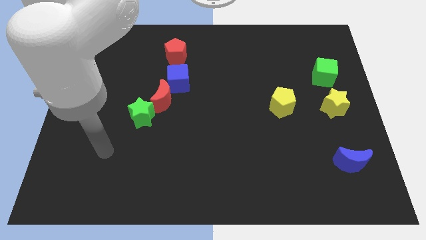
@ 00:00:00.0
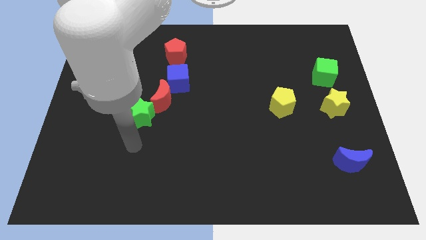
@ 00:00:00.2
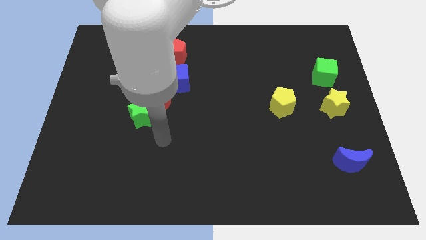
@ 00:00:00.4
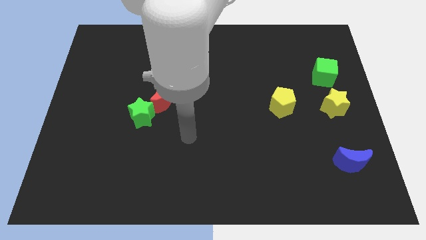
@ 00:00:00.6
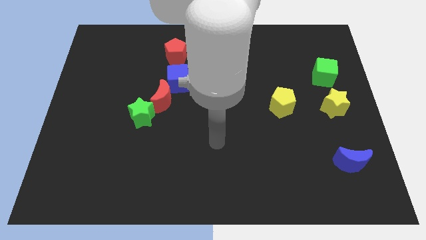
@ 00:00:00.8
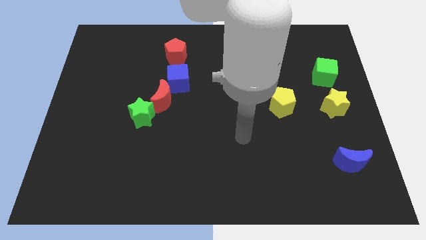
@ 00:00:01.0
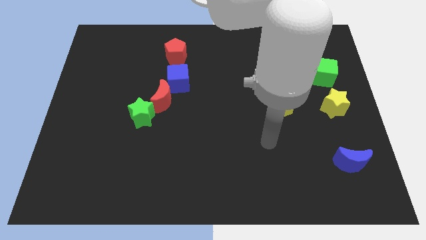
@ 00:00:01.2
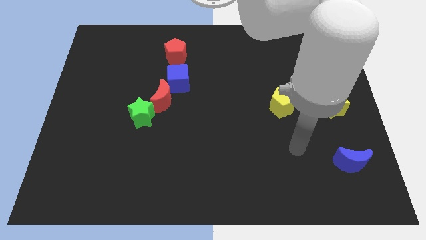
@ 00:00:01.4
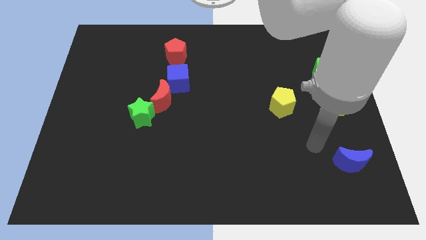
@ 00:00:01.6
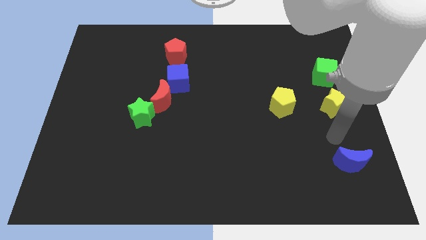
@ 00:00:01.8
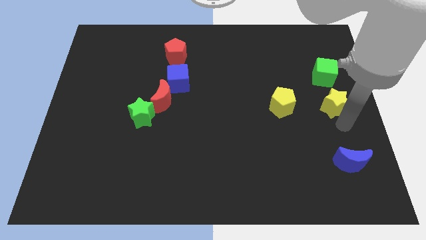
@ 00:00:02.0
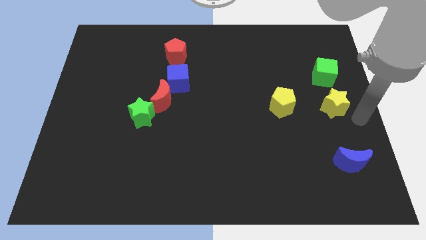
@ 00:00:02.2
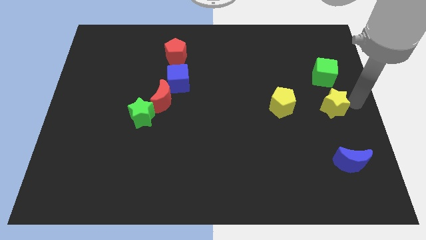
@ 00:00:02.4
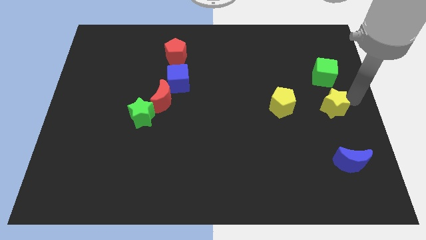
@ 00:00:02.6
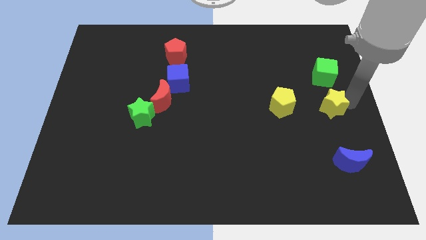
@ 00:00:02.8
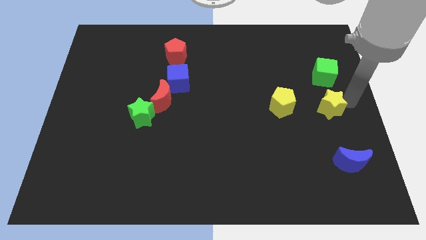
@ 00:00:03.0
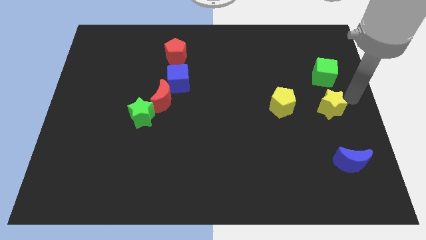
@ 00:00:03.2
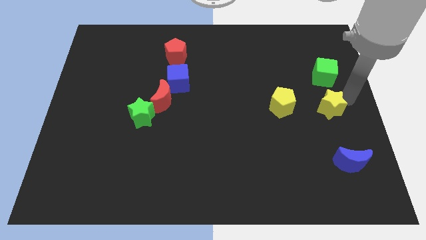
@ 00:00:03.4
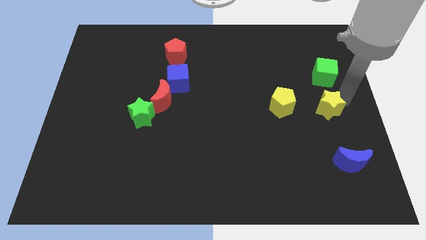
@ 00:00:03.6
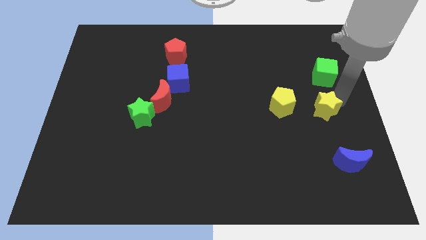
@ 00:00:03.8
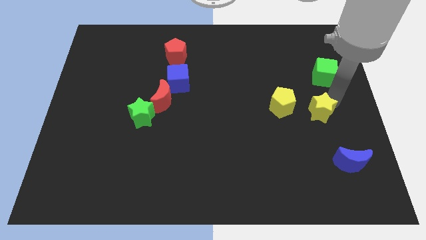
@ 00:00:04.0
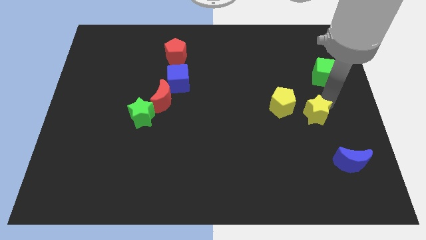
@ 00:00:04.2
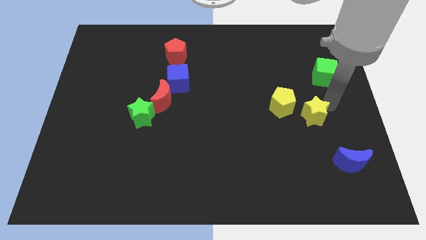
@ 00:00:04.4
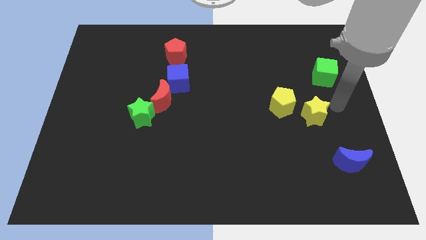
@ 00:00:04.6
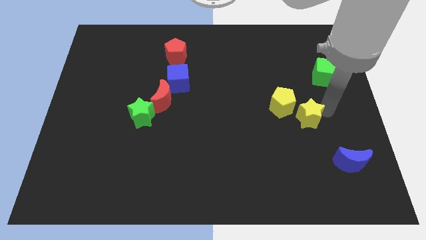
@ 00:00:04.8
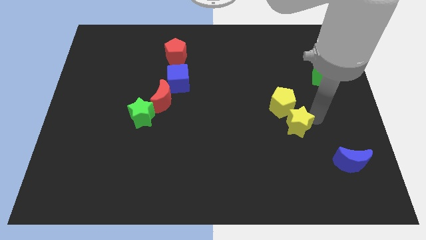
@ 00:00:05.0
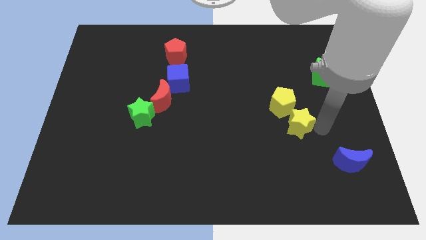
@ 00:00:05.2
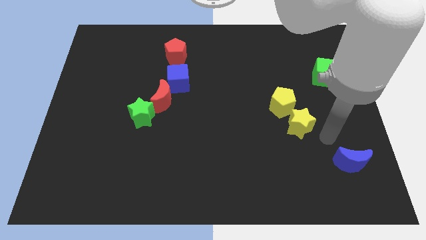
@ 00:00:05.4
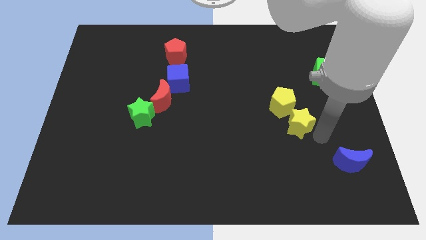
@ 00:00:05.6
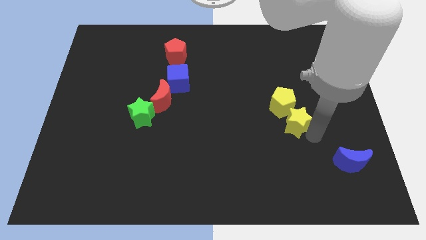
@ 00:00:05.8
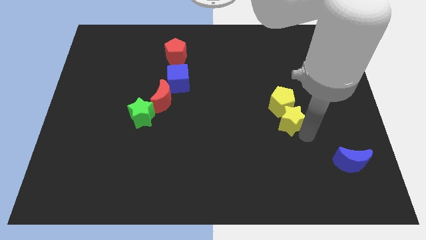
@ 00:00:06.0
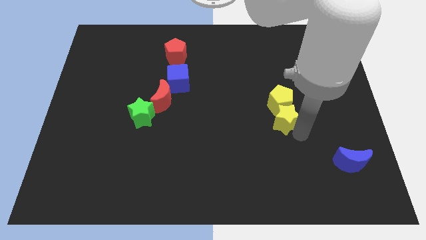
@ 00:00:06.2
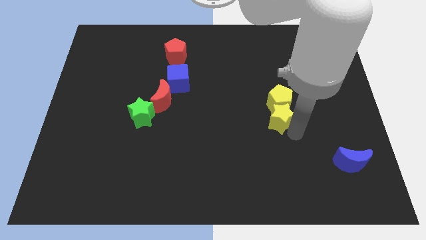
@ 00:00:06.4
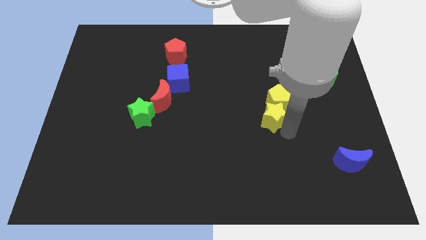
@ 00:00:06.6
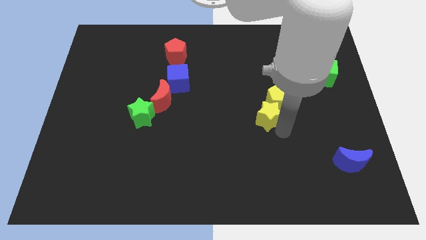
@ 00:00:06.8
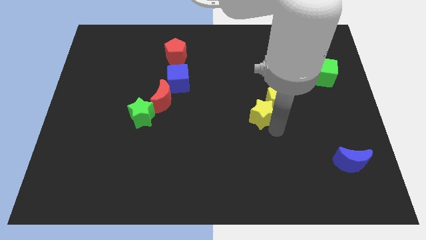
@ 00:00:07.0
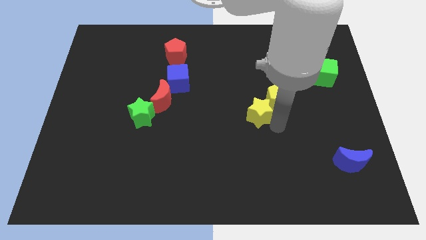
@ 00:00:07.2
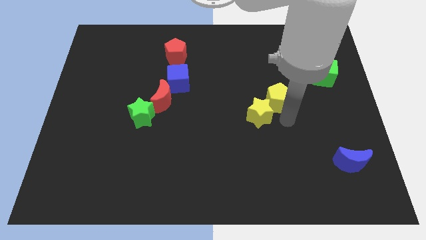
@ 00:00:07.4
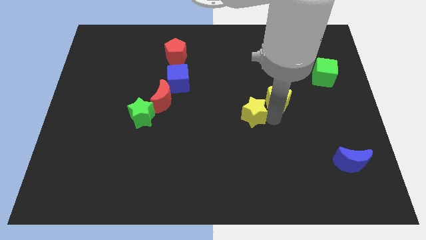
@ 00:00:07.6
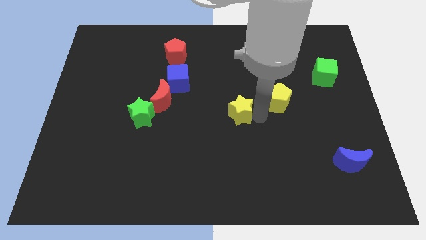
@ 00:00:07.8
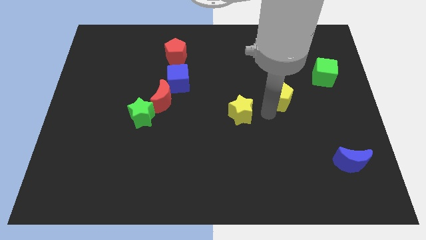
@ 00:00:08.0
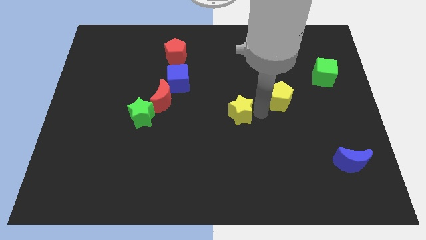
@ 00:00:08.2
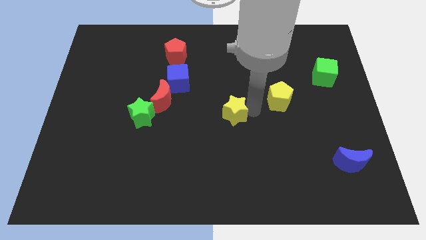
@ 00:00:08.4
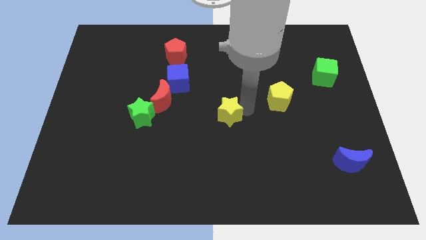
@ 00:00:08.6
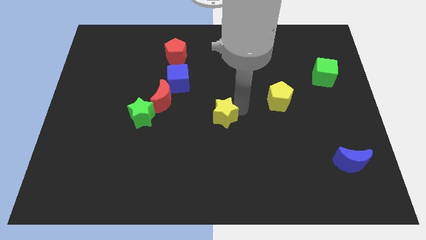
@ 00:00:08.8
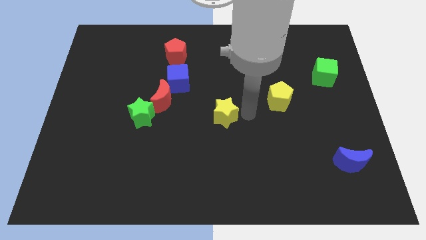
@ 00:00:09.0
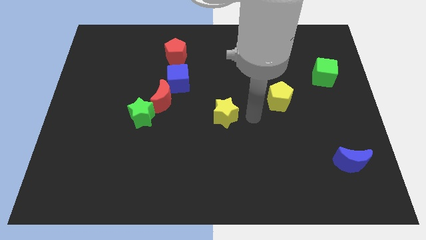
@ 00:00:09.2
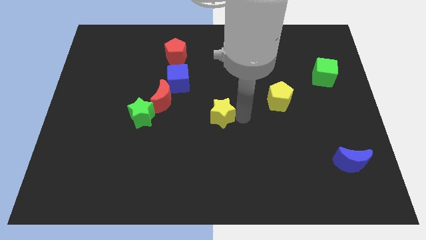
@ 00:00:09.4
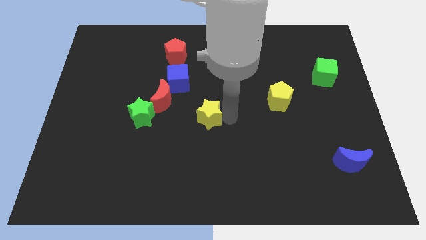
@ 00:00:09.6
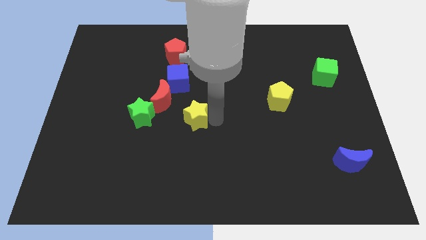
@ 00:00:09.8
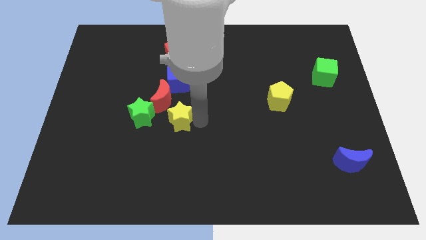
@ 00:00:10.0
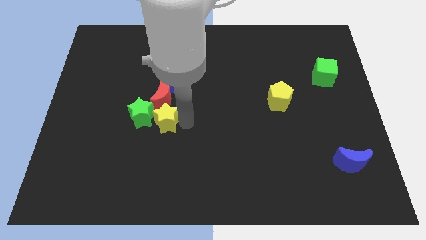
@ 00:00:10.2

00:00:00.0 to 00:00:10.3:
move the yellow star next to the green star

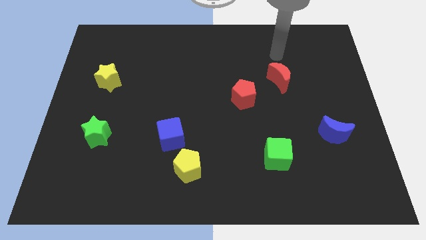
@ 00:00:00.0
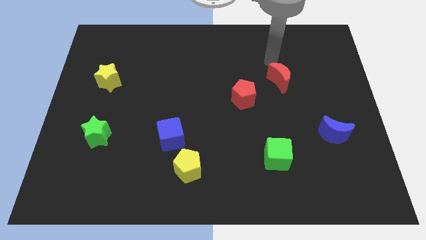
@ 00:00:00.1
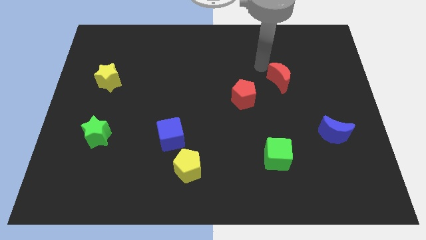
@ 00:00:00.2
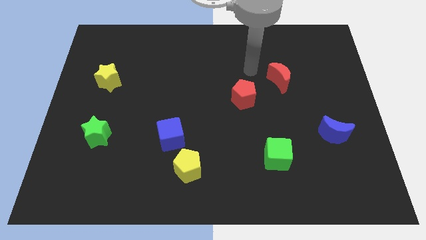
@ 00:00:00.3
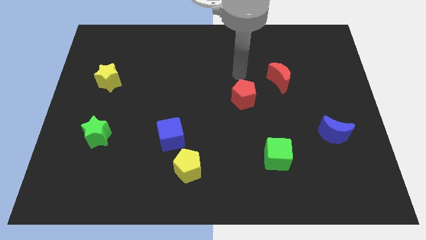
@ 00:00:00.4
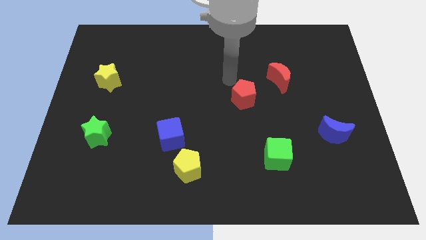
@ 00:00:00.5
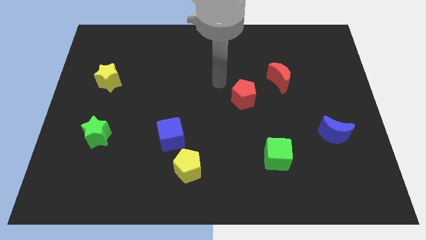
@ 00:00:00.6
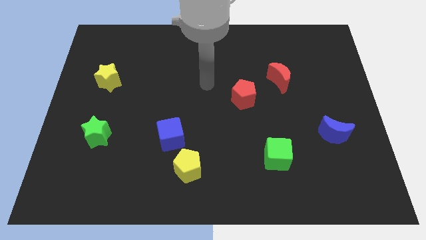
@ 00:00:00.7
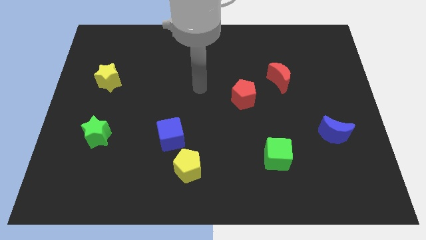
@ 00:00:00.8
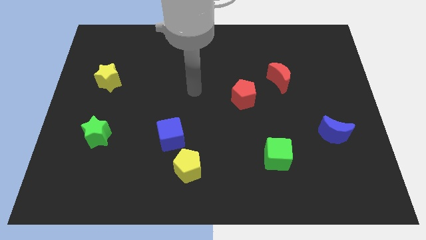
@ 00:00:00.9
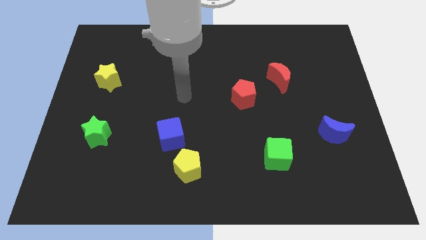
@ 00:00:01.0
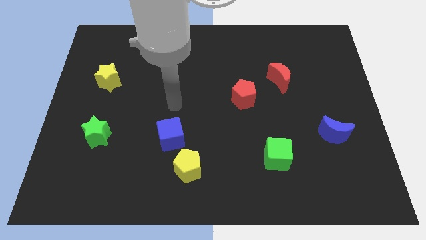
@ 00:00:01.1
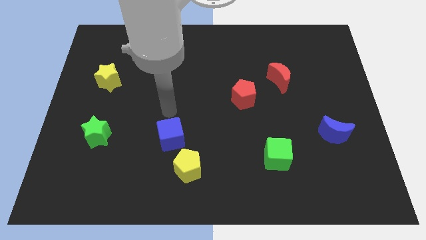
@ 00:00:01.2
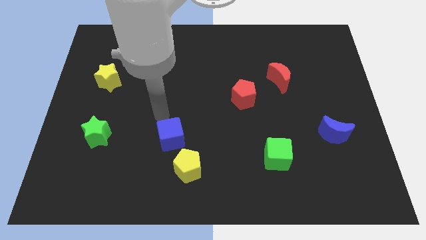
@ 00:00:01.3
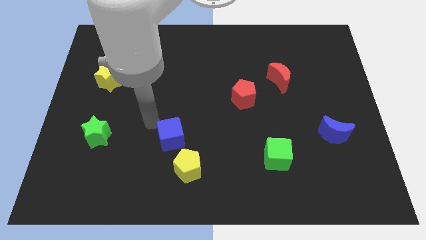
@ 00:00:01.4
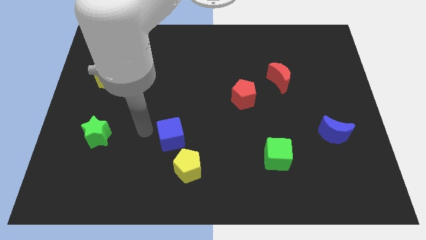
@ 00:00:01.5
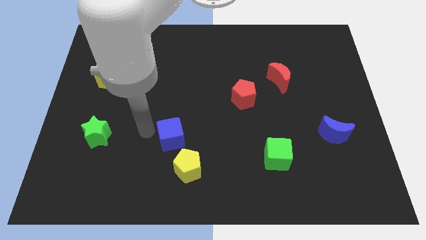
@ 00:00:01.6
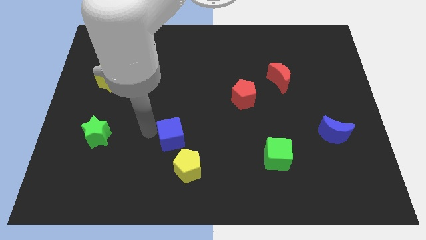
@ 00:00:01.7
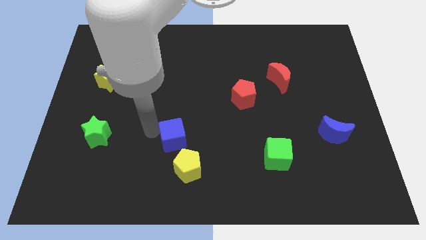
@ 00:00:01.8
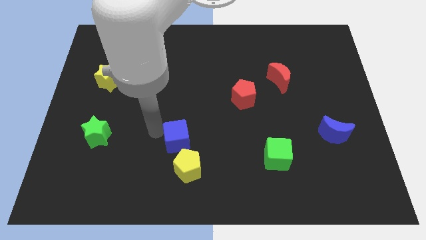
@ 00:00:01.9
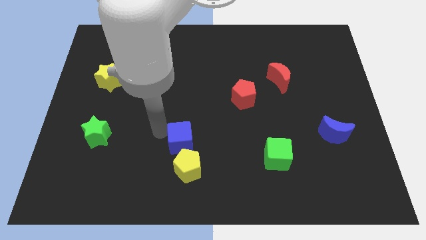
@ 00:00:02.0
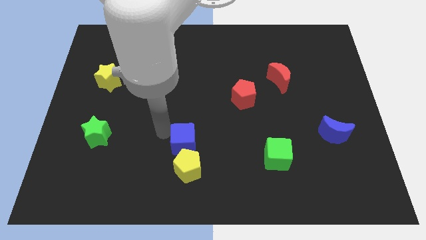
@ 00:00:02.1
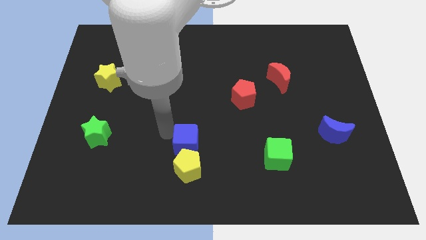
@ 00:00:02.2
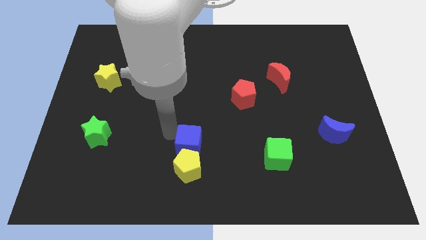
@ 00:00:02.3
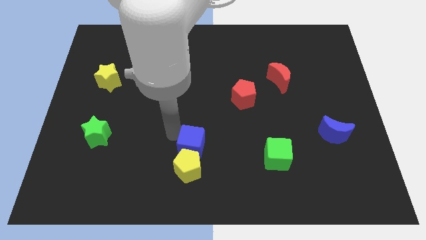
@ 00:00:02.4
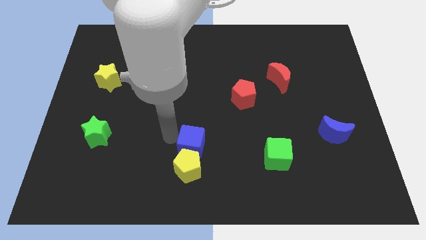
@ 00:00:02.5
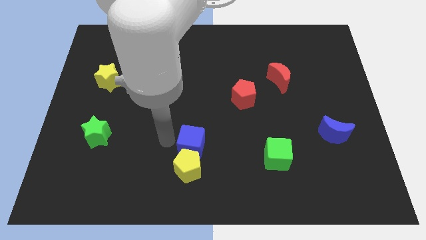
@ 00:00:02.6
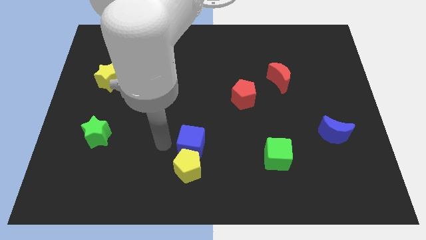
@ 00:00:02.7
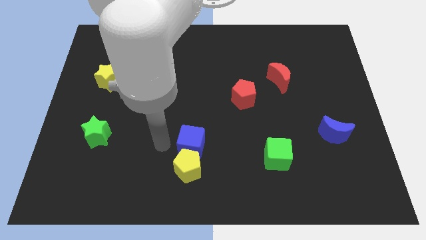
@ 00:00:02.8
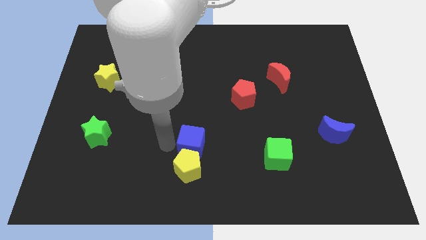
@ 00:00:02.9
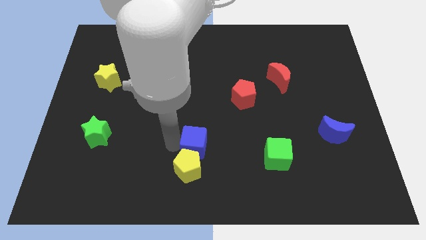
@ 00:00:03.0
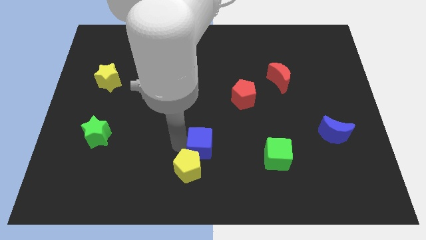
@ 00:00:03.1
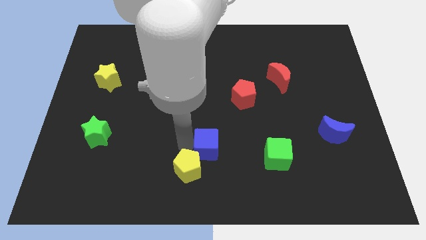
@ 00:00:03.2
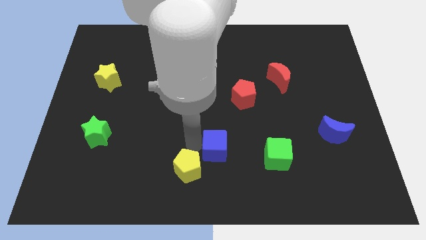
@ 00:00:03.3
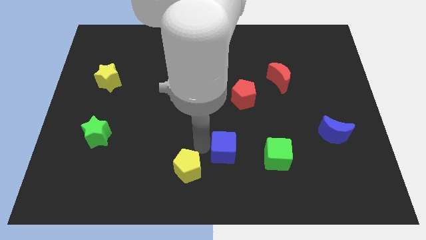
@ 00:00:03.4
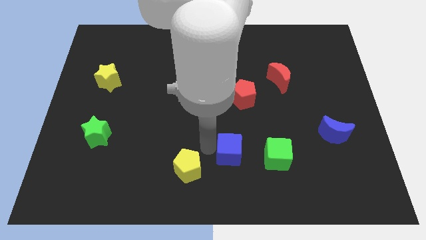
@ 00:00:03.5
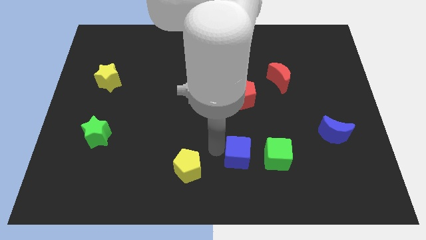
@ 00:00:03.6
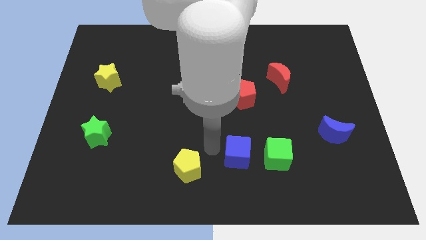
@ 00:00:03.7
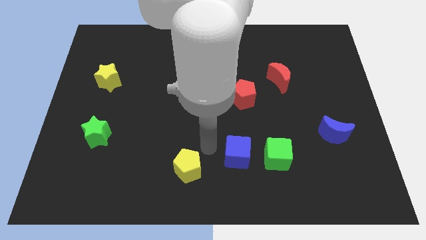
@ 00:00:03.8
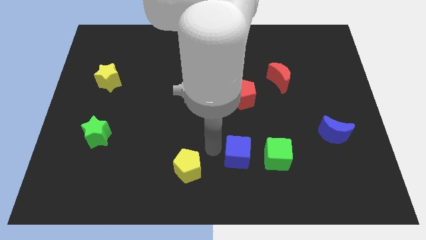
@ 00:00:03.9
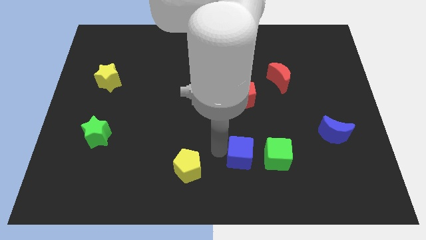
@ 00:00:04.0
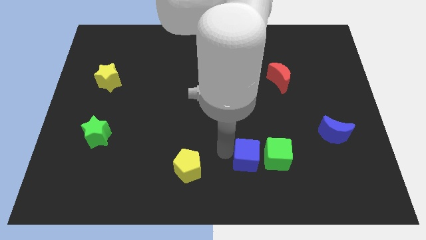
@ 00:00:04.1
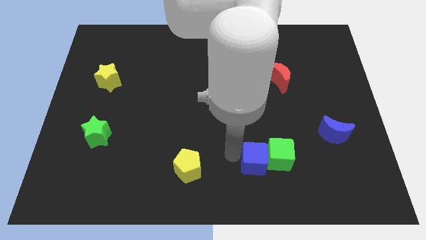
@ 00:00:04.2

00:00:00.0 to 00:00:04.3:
push the blue cube next to the green cube
